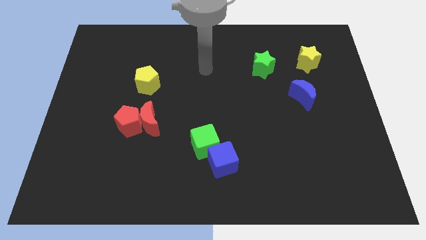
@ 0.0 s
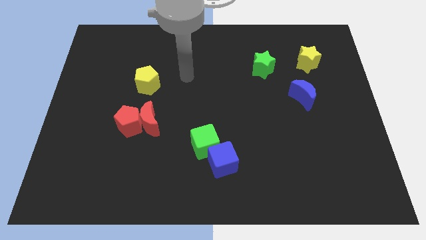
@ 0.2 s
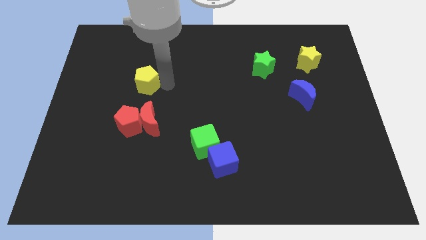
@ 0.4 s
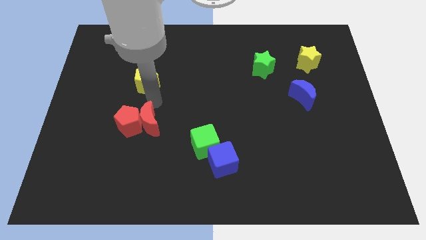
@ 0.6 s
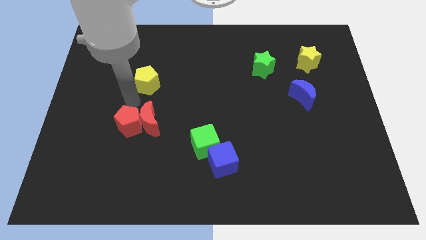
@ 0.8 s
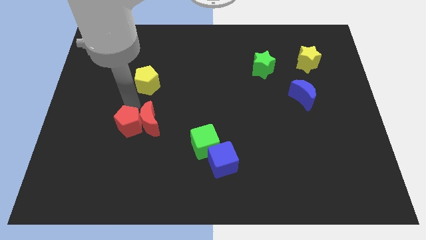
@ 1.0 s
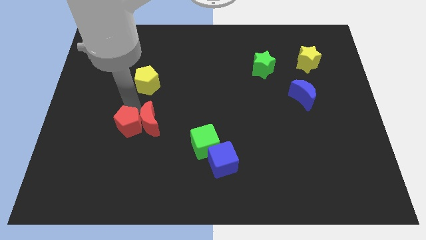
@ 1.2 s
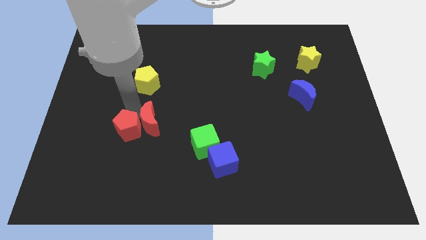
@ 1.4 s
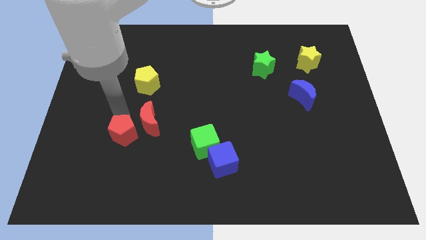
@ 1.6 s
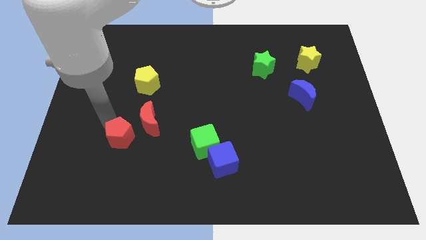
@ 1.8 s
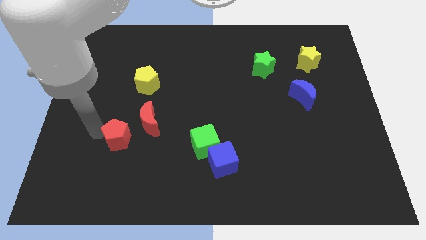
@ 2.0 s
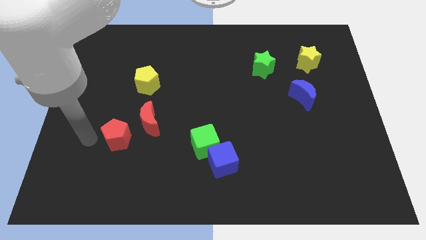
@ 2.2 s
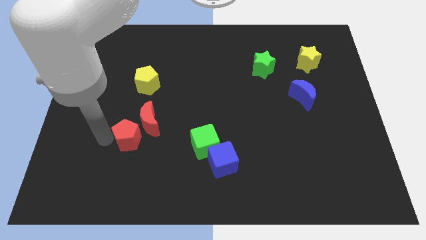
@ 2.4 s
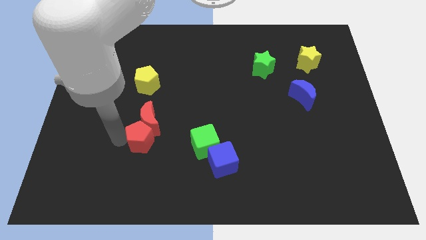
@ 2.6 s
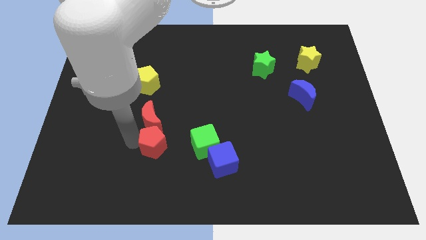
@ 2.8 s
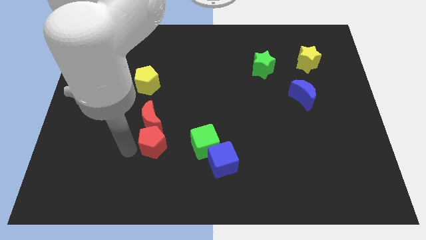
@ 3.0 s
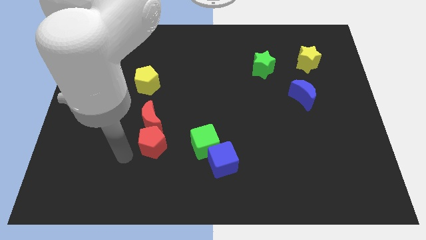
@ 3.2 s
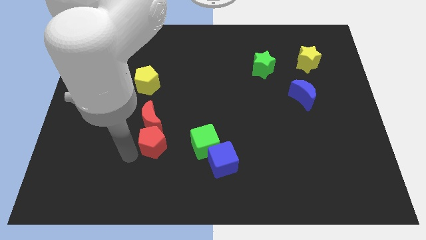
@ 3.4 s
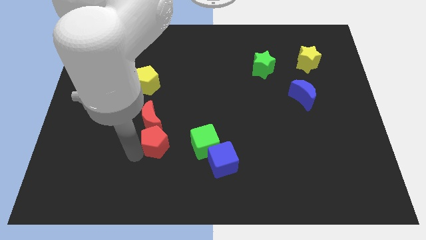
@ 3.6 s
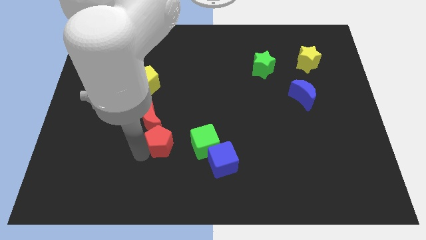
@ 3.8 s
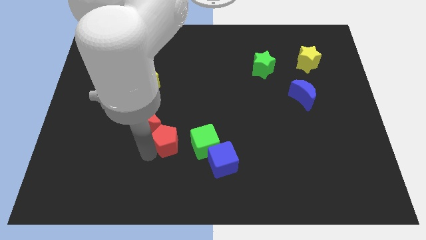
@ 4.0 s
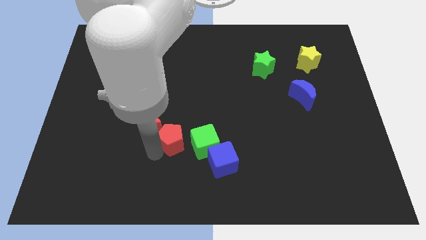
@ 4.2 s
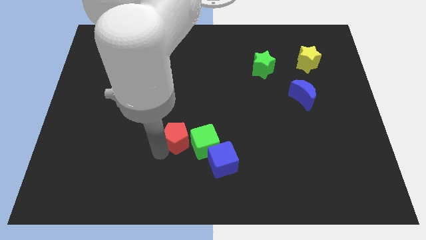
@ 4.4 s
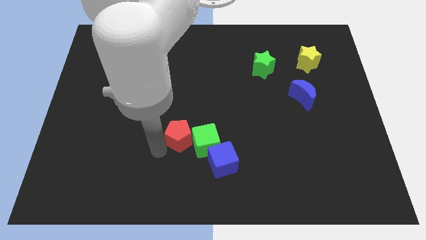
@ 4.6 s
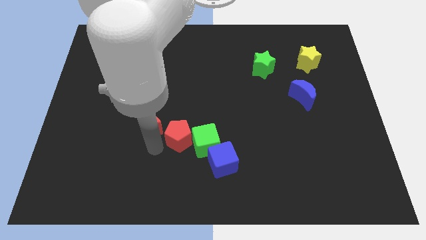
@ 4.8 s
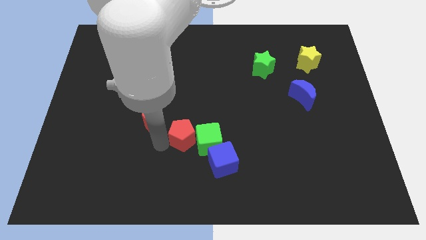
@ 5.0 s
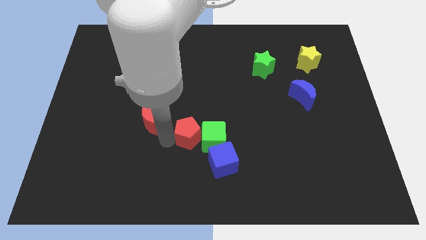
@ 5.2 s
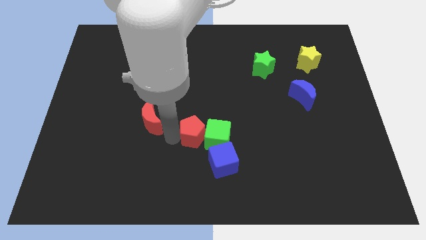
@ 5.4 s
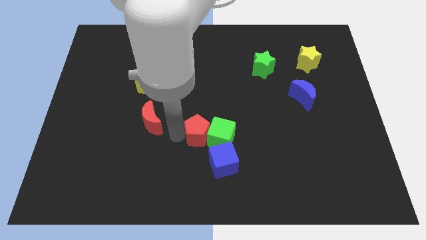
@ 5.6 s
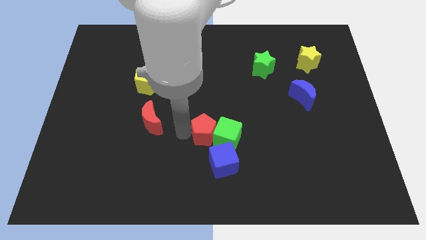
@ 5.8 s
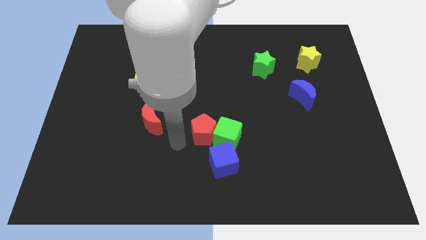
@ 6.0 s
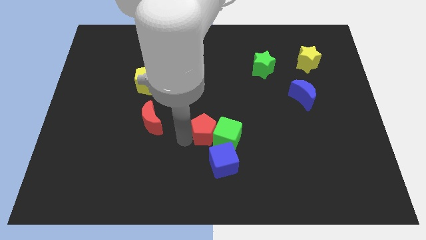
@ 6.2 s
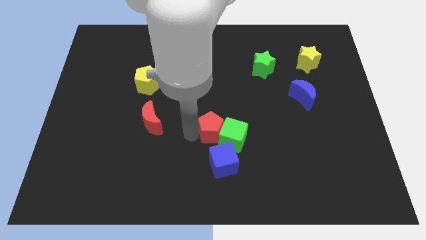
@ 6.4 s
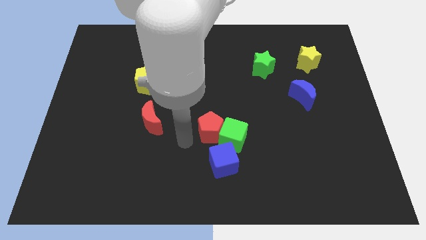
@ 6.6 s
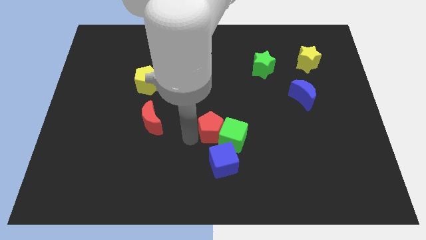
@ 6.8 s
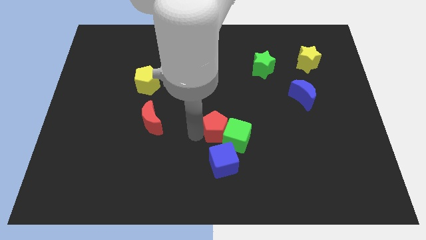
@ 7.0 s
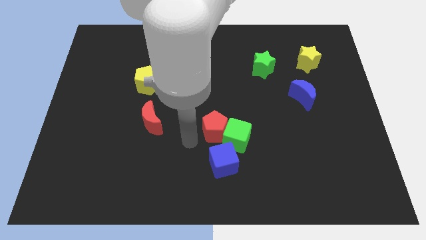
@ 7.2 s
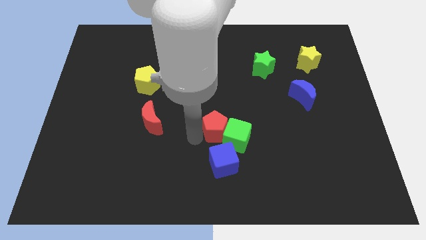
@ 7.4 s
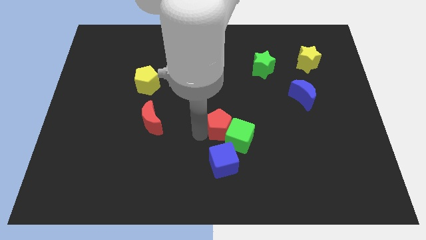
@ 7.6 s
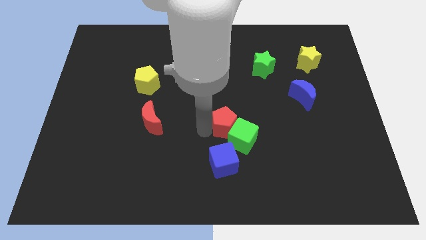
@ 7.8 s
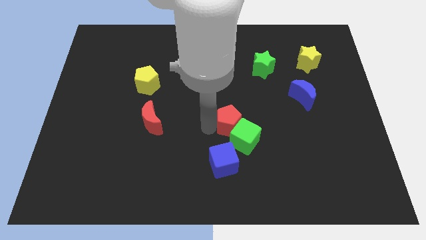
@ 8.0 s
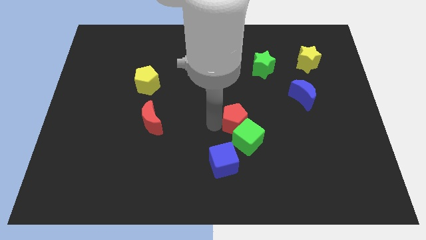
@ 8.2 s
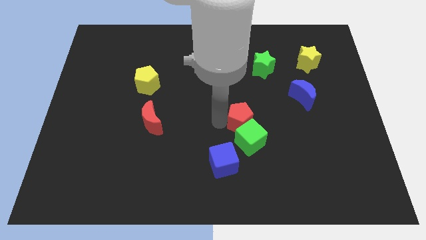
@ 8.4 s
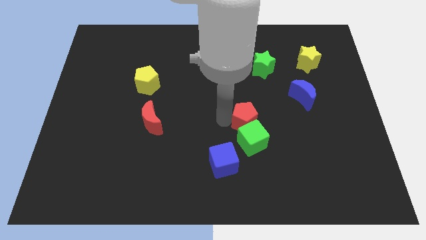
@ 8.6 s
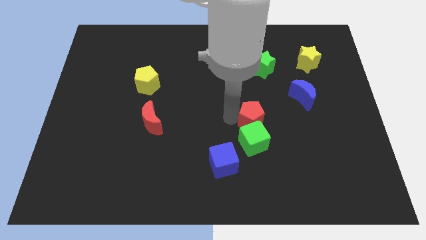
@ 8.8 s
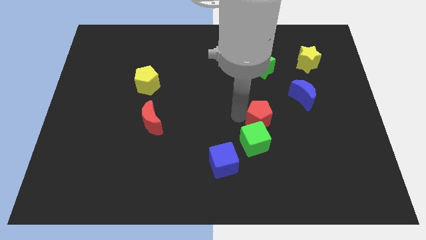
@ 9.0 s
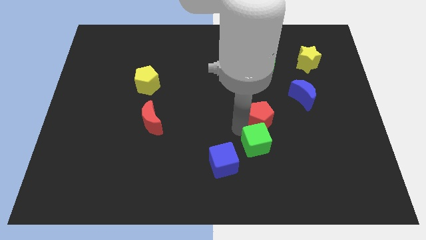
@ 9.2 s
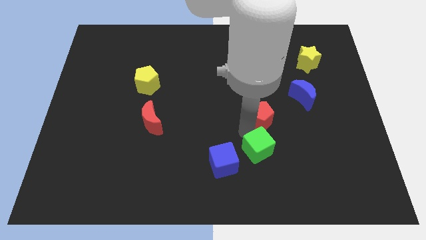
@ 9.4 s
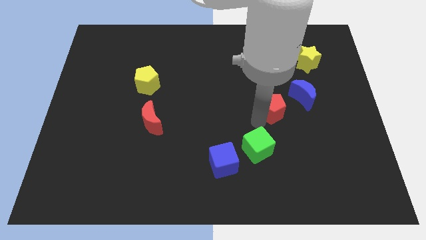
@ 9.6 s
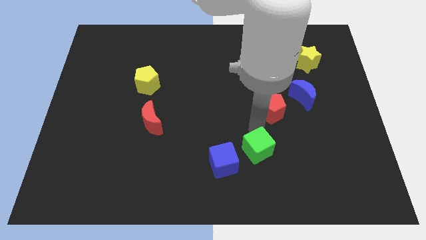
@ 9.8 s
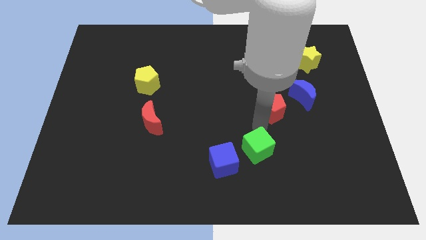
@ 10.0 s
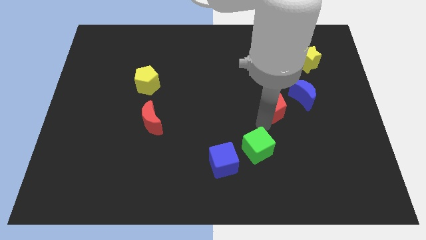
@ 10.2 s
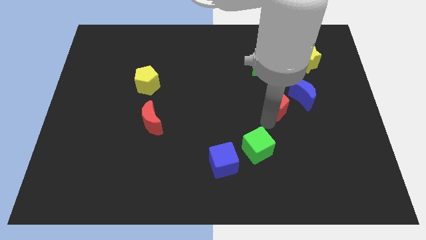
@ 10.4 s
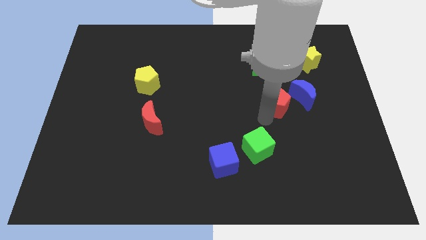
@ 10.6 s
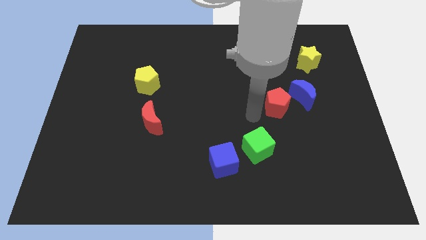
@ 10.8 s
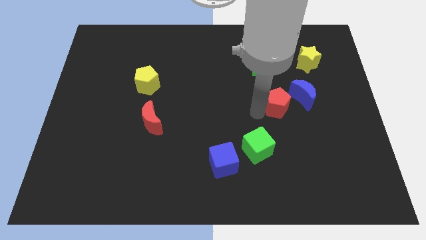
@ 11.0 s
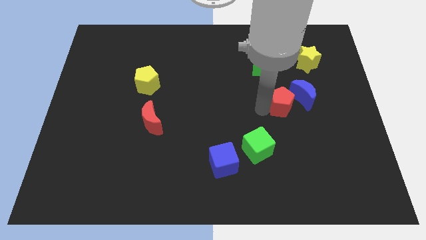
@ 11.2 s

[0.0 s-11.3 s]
put the red pentagon close to the blue moon

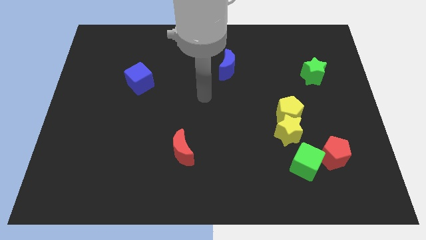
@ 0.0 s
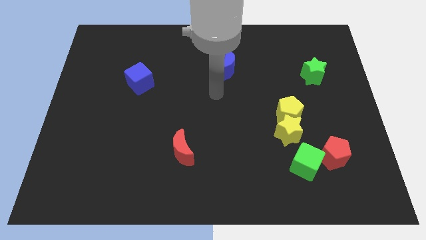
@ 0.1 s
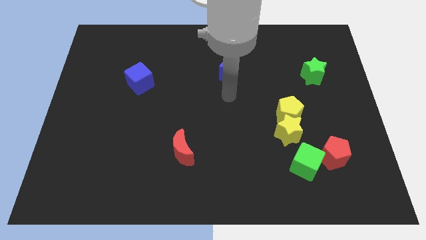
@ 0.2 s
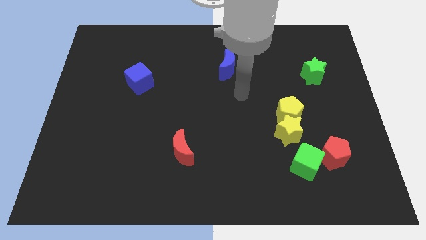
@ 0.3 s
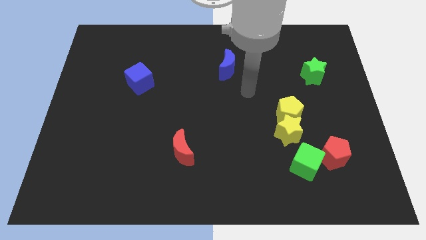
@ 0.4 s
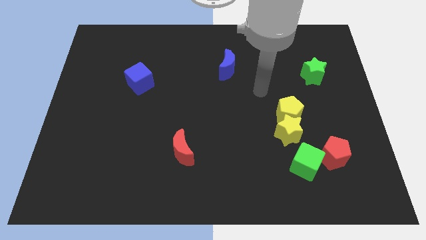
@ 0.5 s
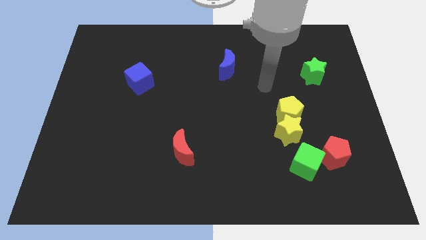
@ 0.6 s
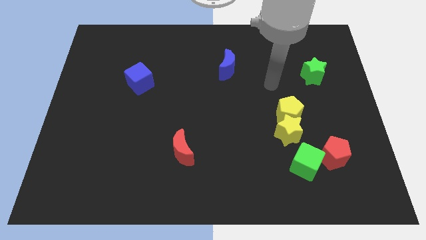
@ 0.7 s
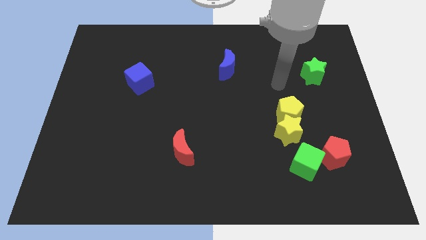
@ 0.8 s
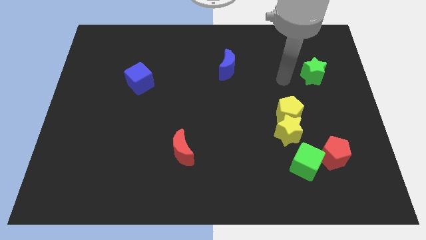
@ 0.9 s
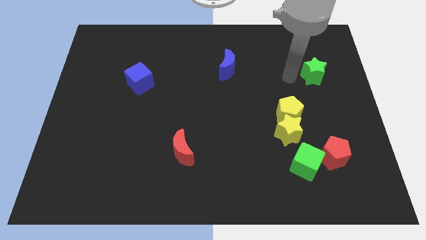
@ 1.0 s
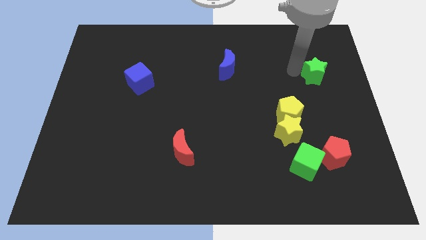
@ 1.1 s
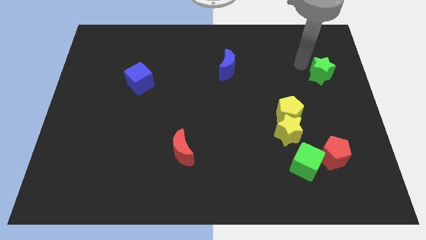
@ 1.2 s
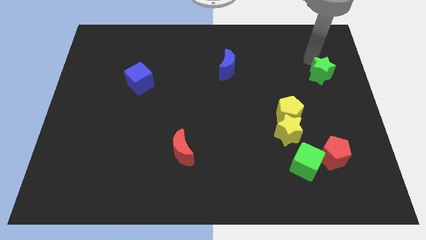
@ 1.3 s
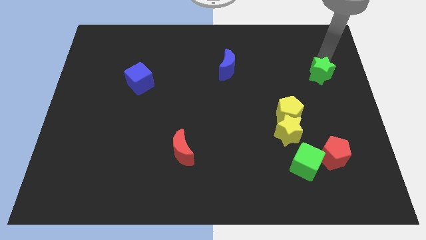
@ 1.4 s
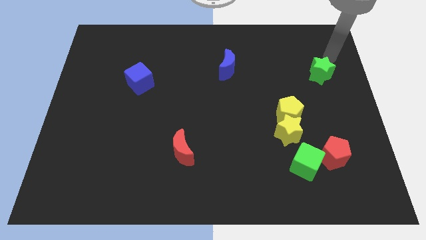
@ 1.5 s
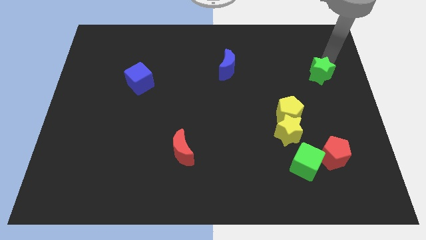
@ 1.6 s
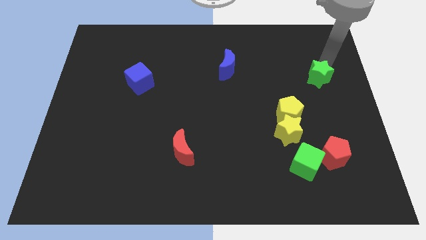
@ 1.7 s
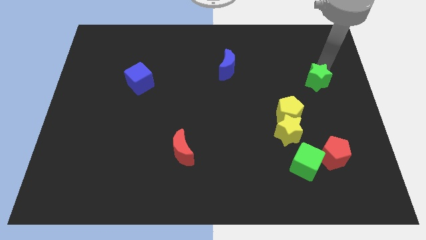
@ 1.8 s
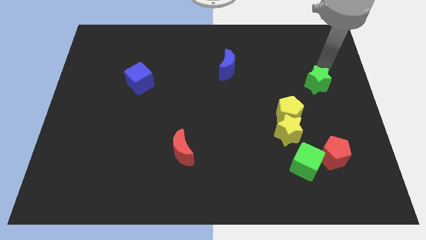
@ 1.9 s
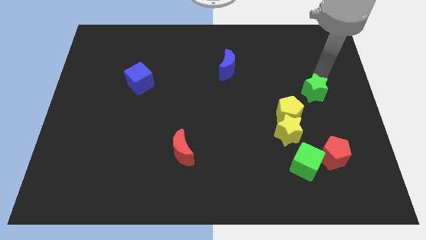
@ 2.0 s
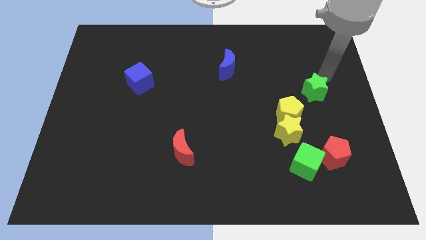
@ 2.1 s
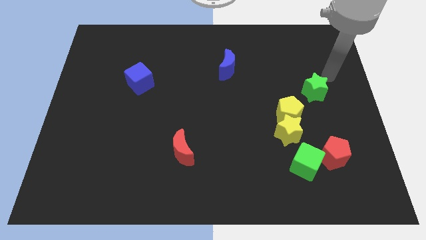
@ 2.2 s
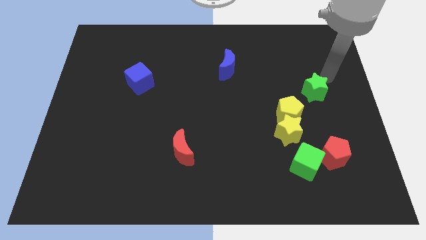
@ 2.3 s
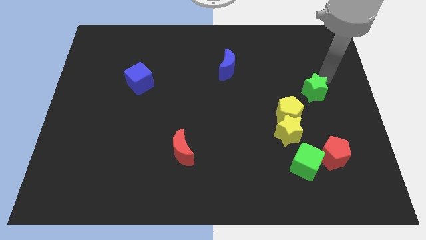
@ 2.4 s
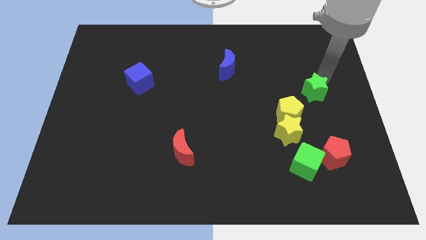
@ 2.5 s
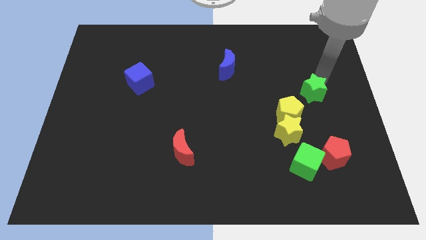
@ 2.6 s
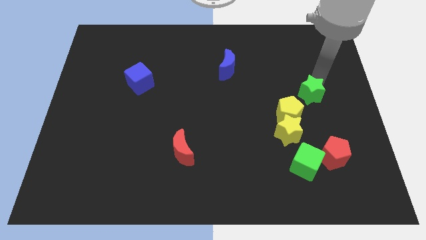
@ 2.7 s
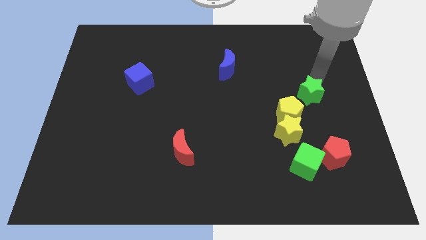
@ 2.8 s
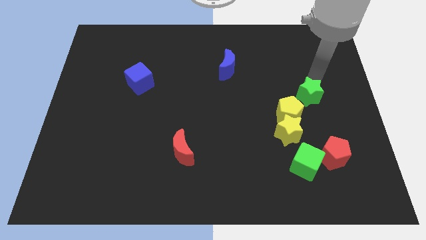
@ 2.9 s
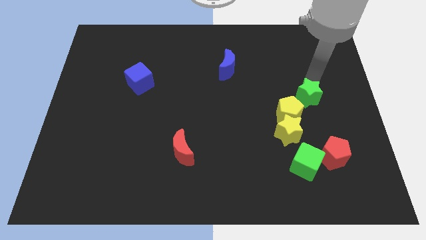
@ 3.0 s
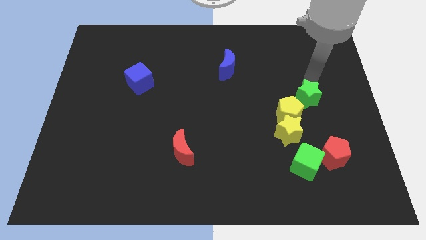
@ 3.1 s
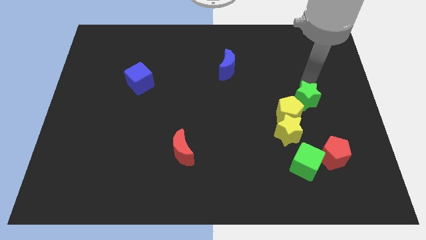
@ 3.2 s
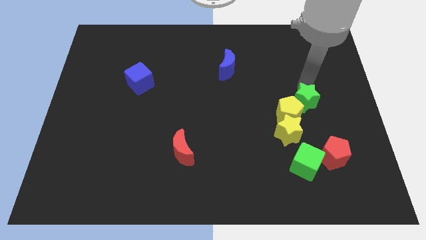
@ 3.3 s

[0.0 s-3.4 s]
move the green star to the yellow pentagon
